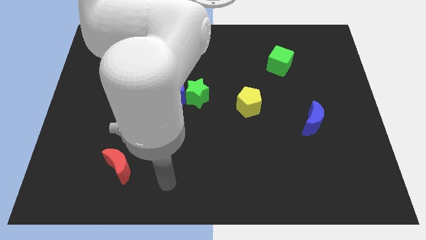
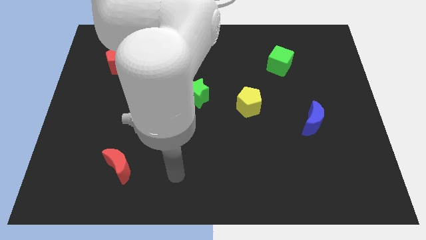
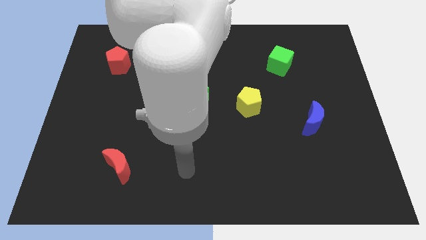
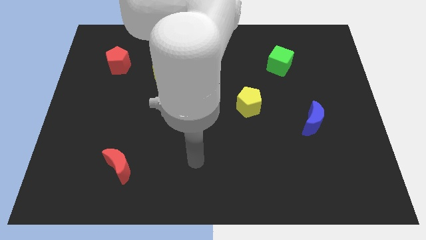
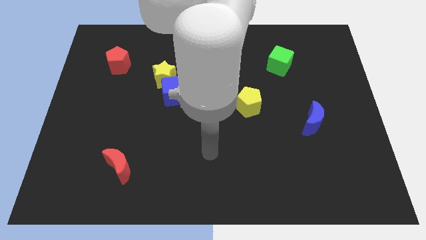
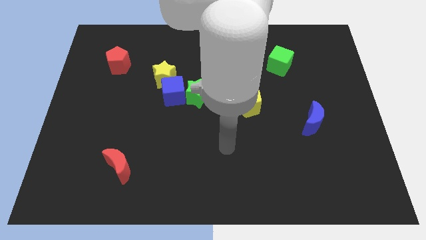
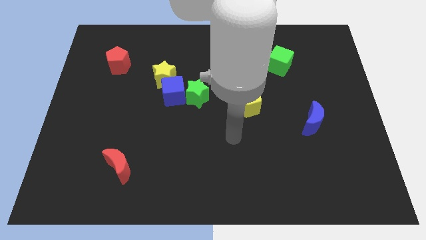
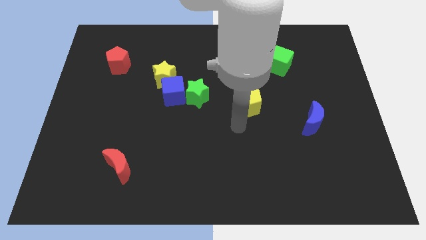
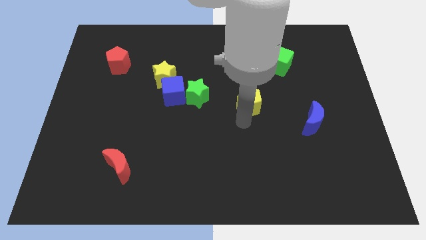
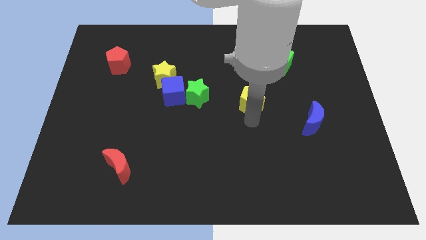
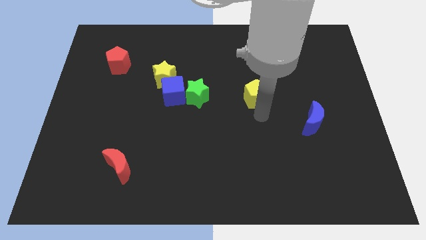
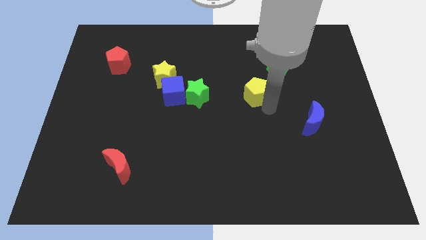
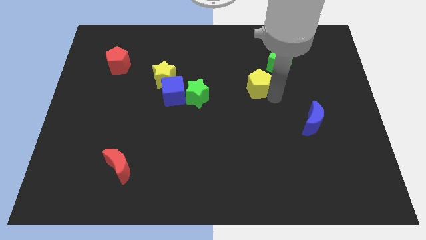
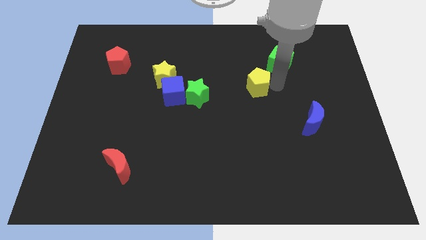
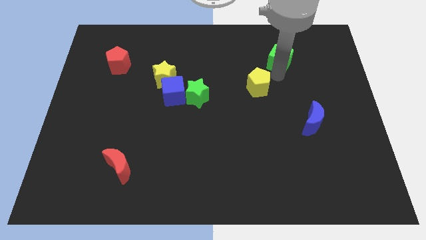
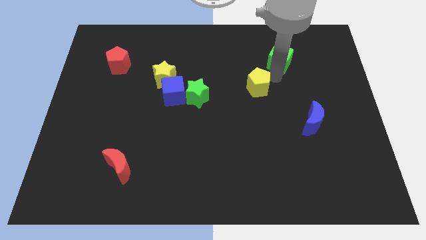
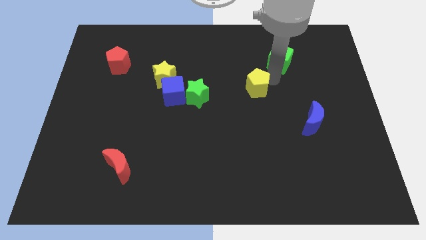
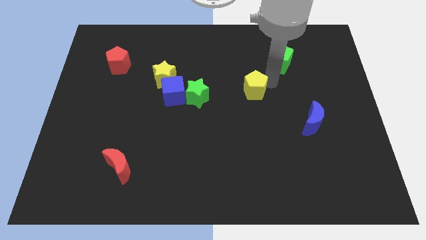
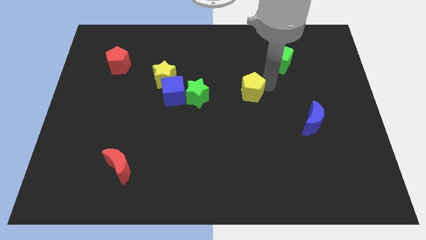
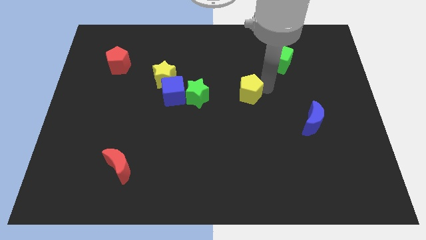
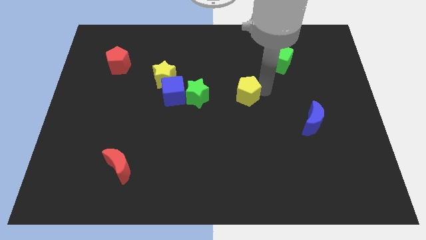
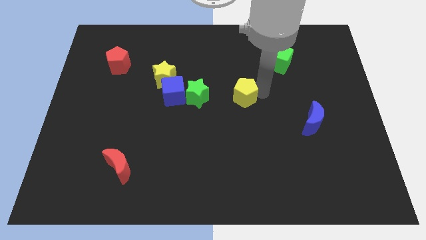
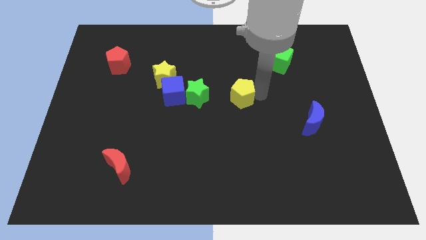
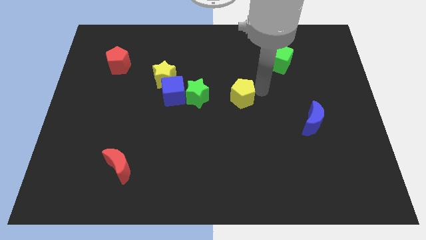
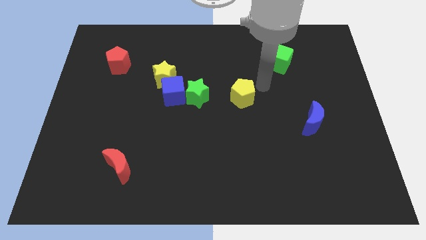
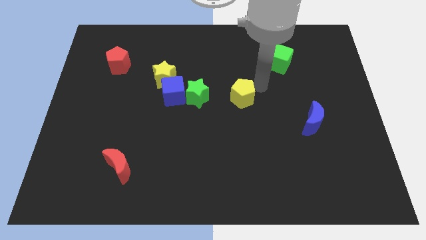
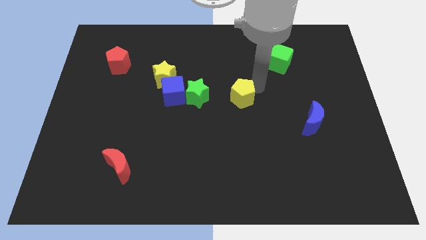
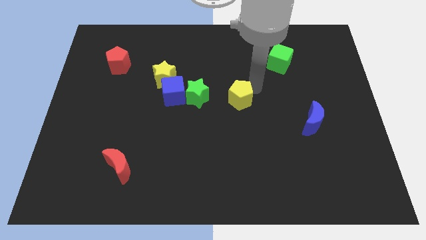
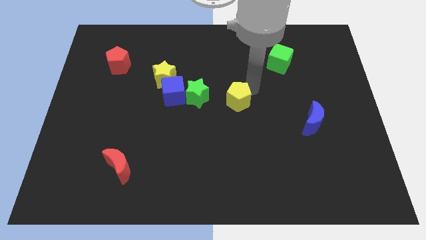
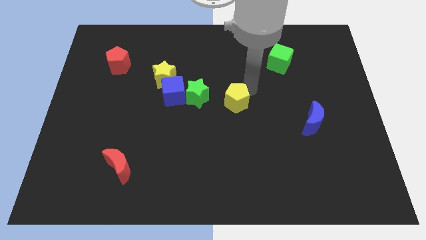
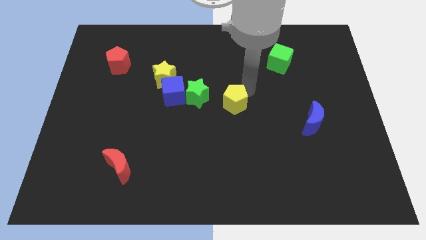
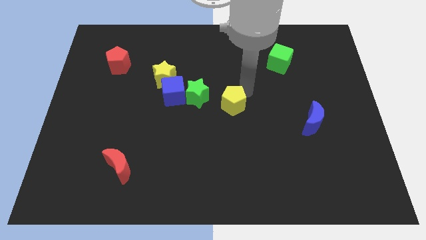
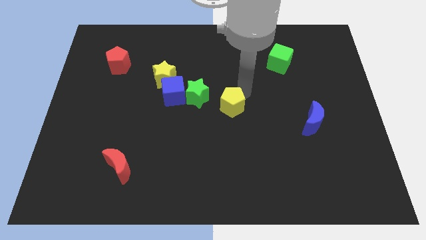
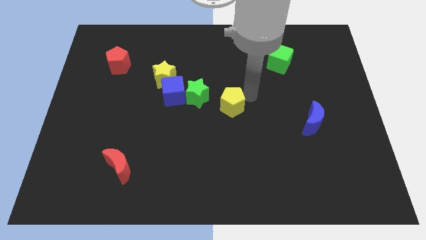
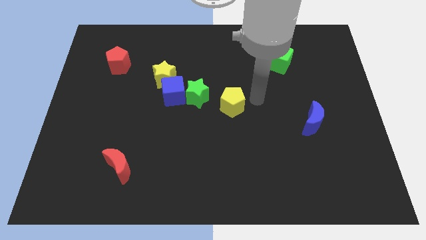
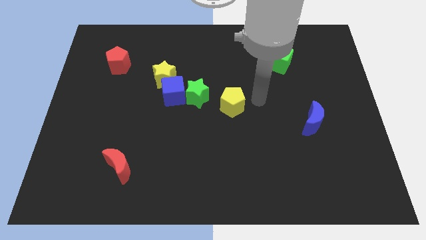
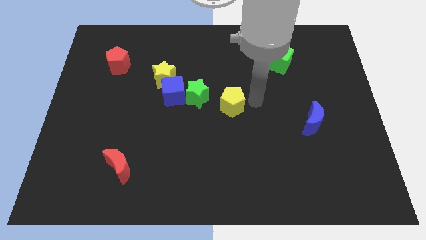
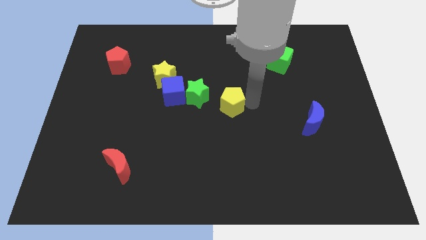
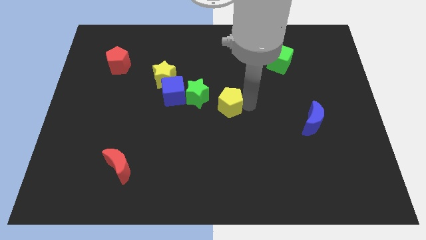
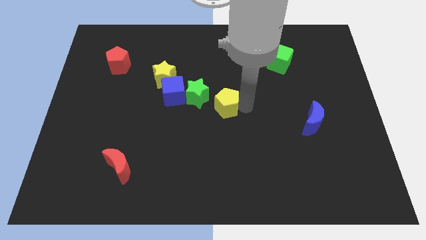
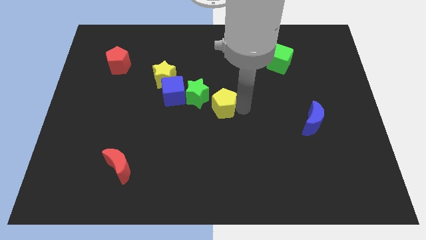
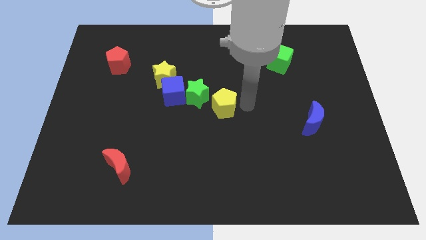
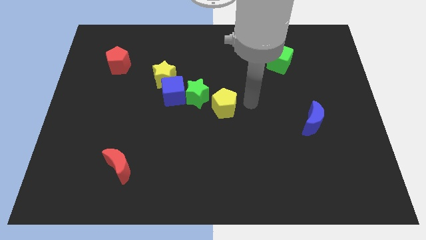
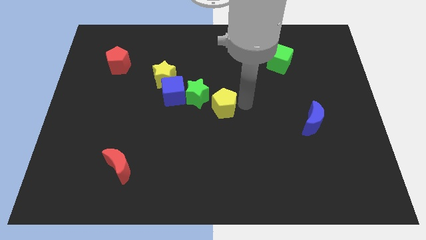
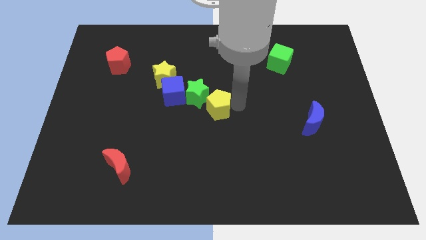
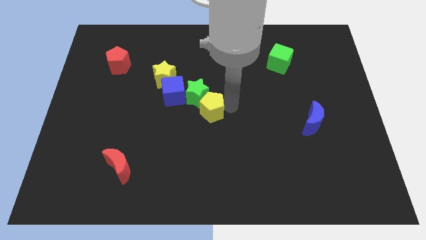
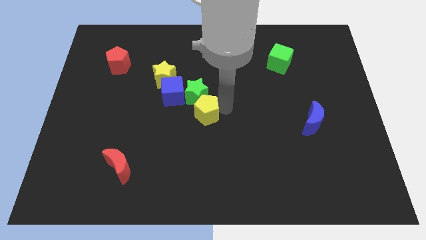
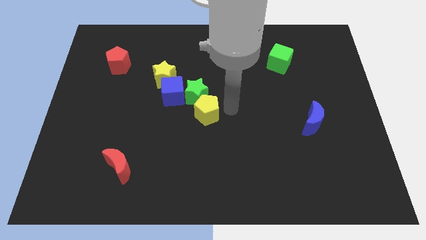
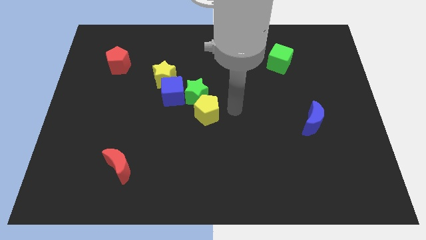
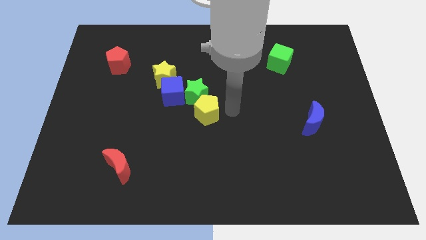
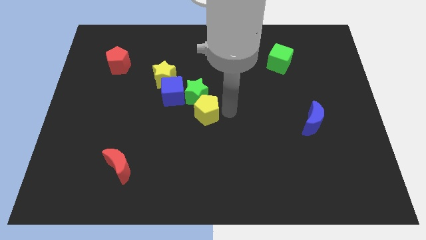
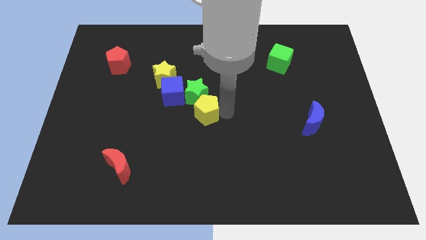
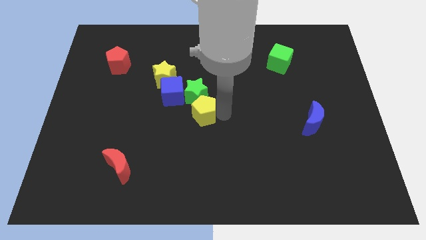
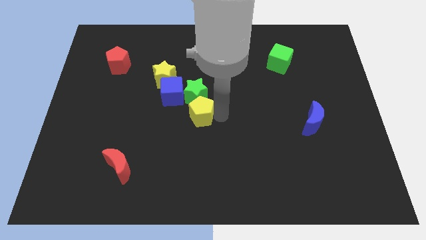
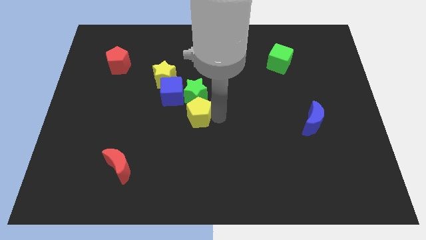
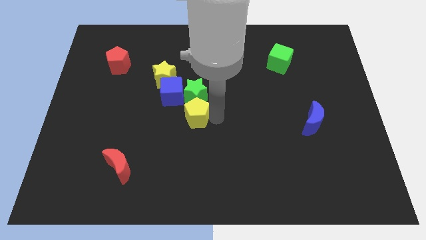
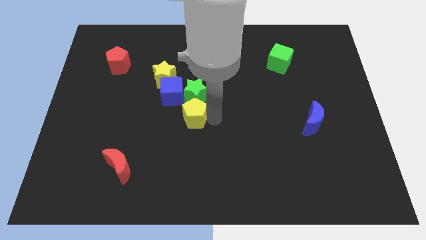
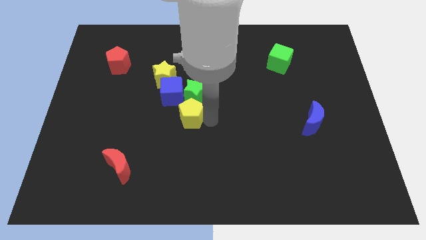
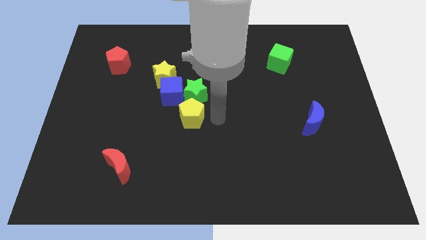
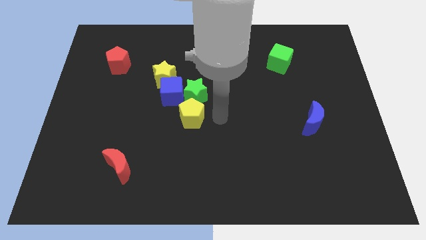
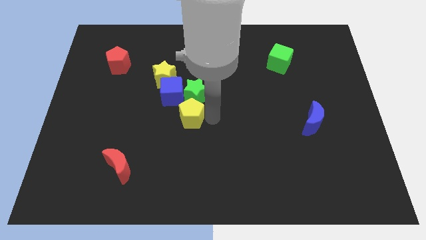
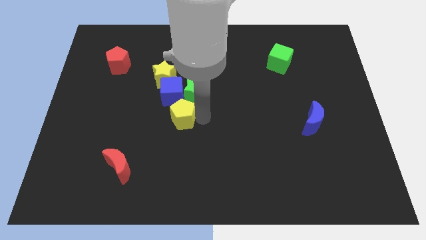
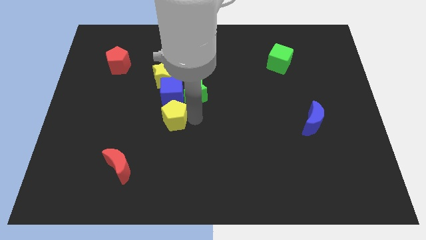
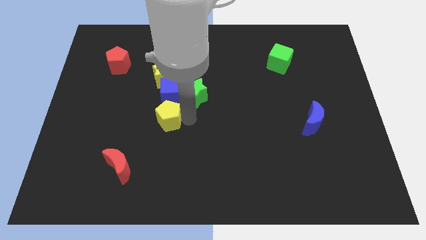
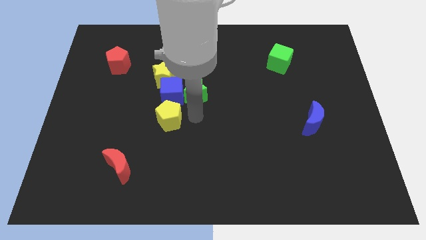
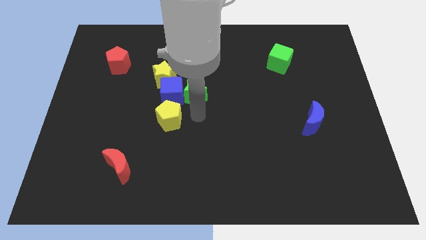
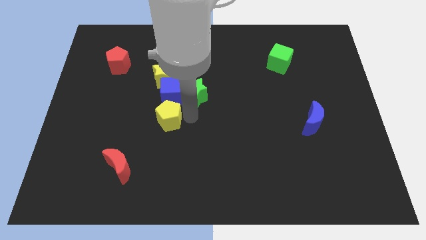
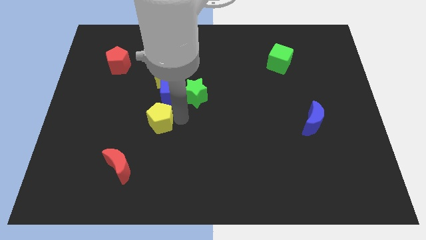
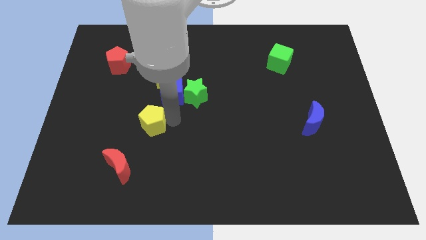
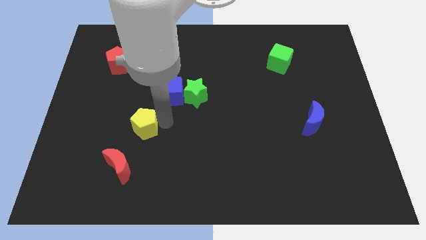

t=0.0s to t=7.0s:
move the yellow pentagon above the red moon
